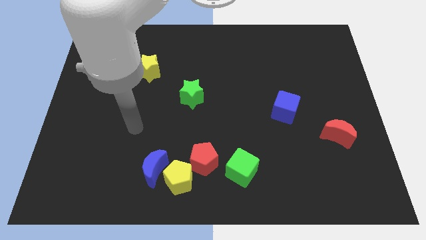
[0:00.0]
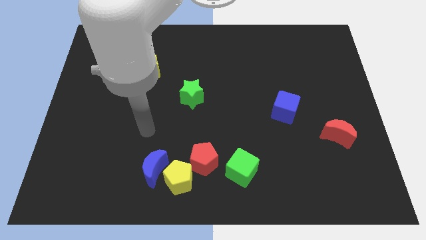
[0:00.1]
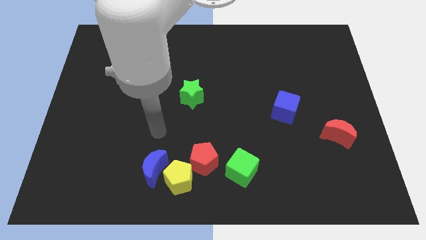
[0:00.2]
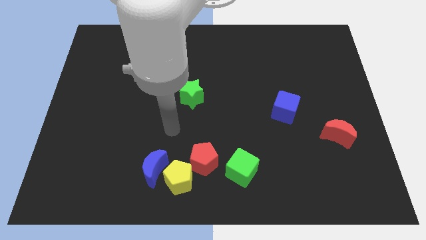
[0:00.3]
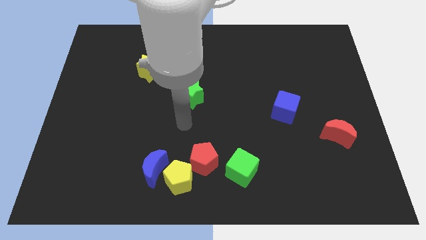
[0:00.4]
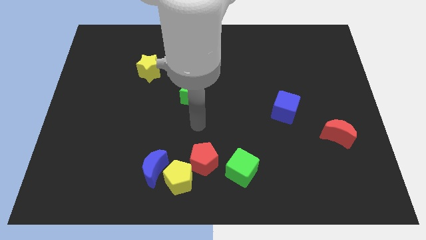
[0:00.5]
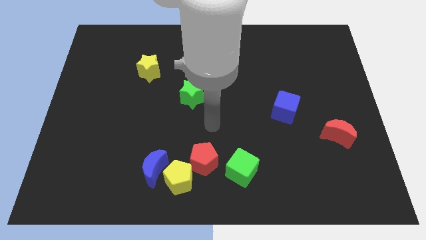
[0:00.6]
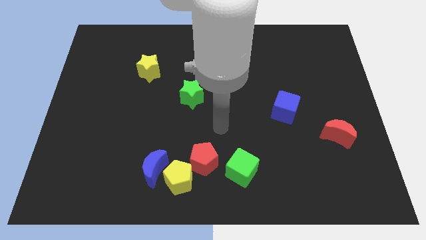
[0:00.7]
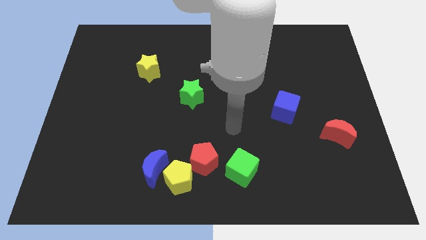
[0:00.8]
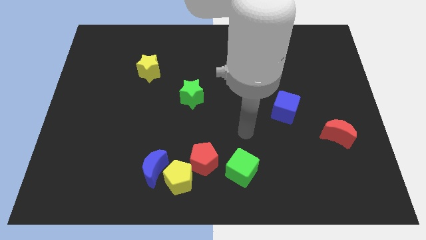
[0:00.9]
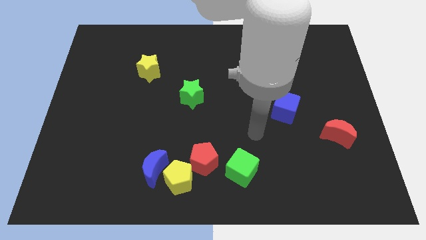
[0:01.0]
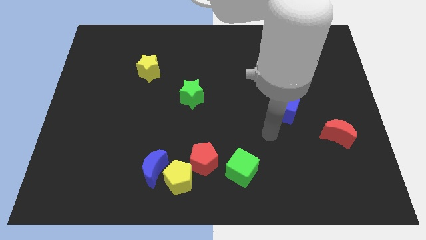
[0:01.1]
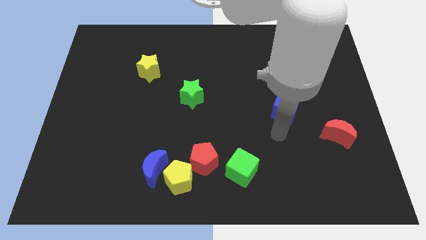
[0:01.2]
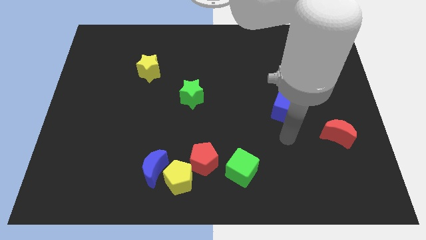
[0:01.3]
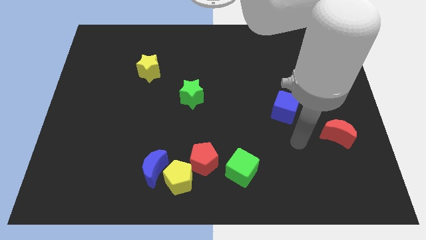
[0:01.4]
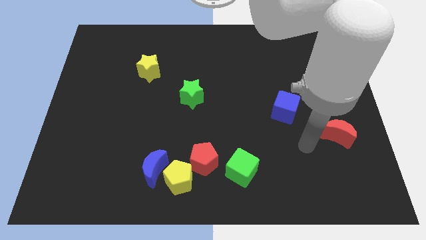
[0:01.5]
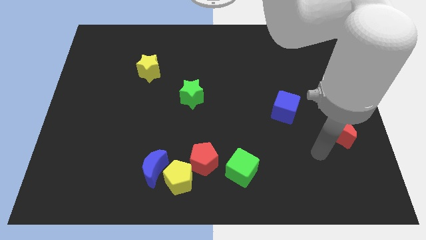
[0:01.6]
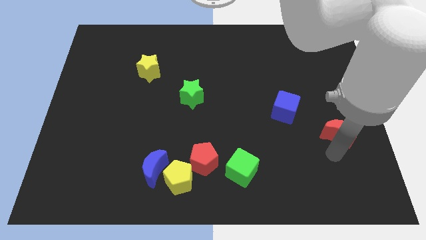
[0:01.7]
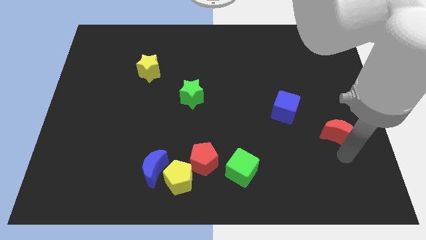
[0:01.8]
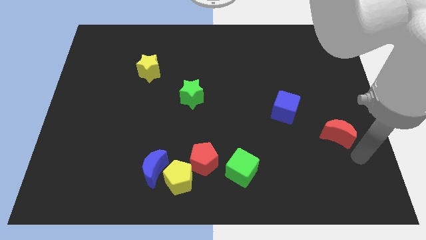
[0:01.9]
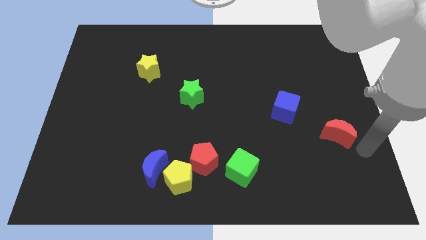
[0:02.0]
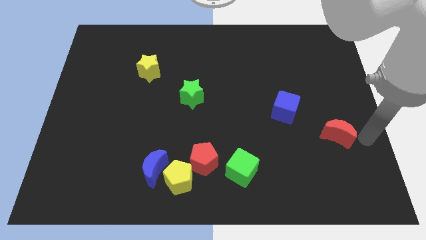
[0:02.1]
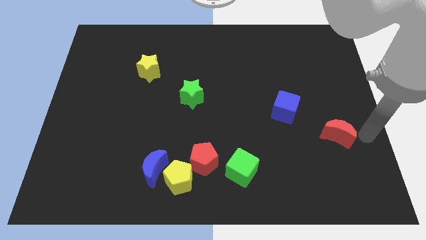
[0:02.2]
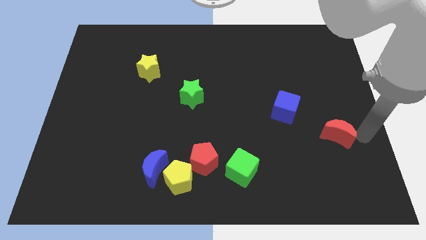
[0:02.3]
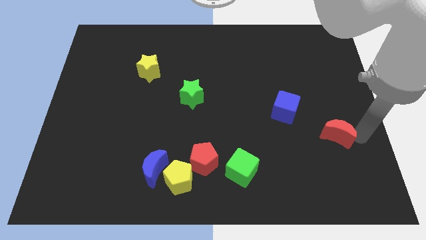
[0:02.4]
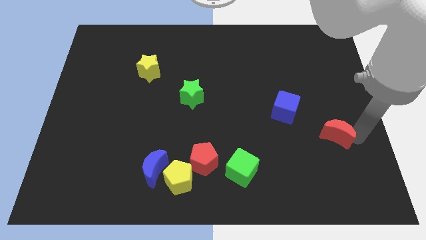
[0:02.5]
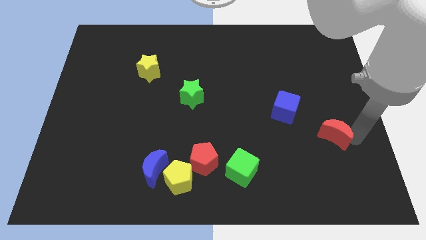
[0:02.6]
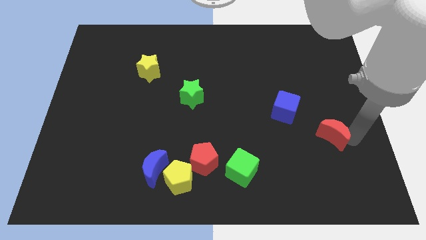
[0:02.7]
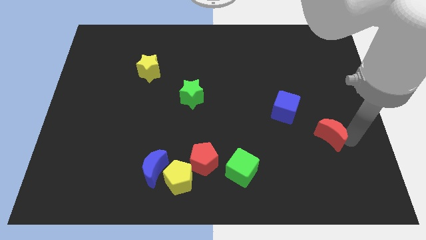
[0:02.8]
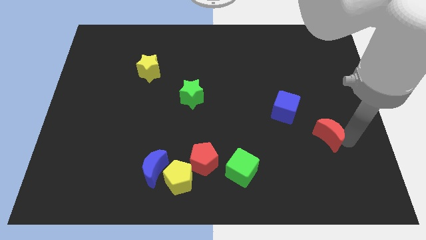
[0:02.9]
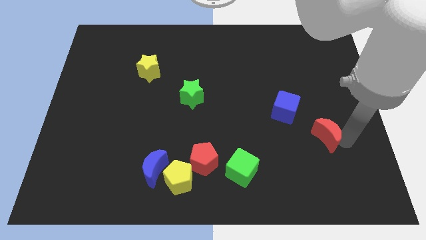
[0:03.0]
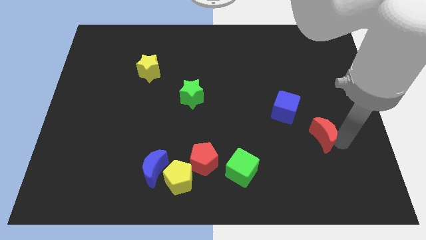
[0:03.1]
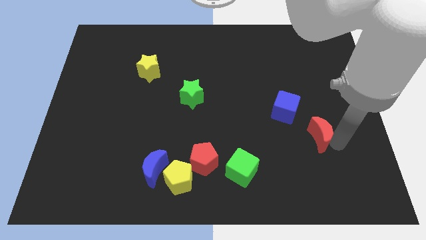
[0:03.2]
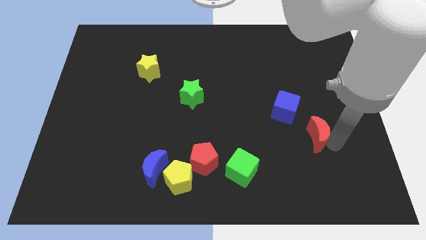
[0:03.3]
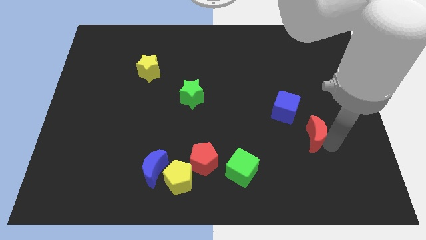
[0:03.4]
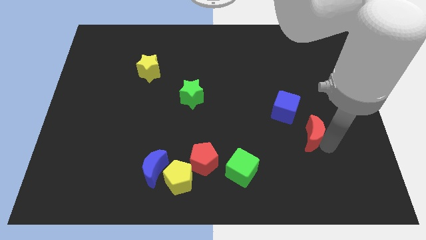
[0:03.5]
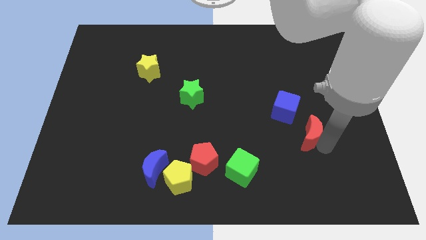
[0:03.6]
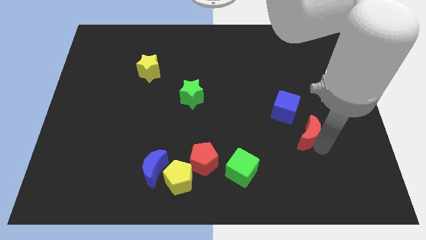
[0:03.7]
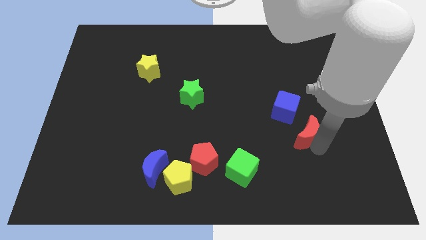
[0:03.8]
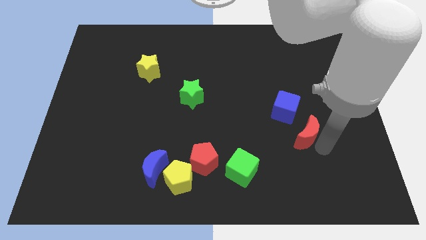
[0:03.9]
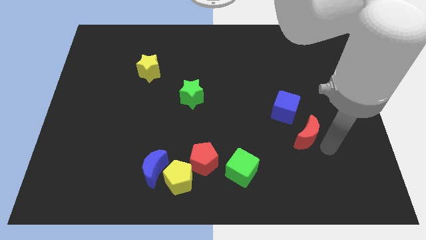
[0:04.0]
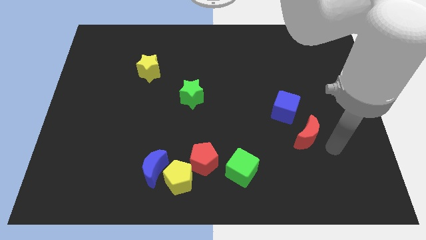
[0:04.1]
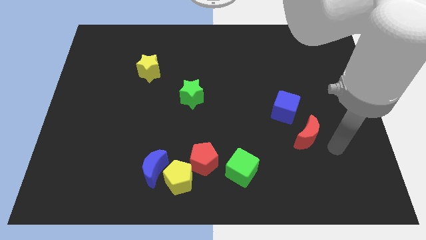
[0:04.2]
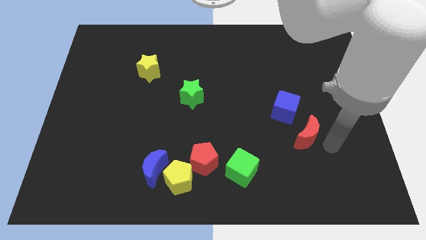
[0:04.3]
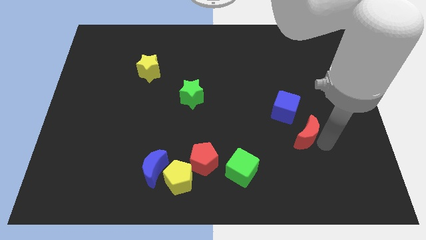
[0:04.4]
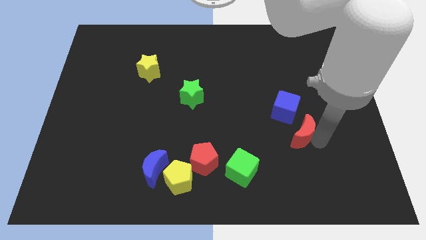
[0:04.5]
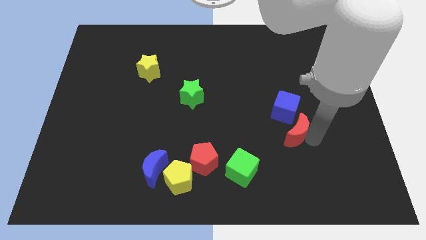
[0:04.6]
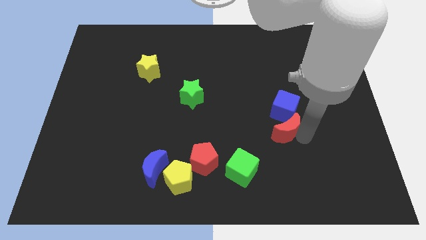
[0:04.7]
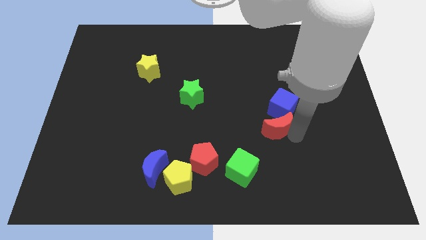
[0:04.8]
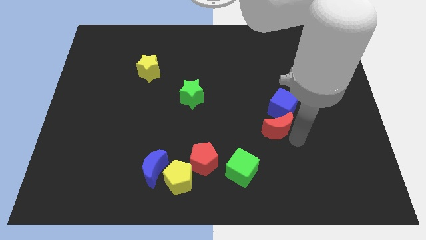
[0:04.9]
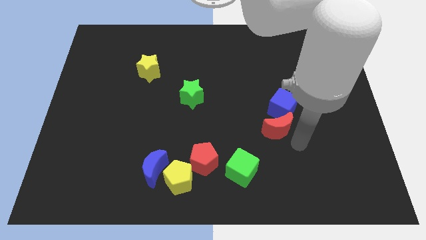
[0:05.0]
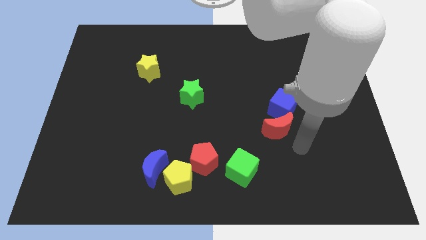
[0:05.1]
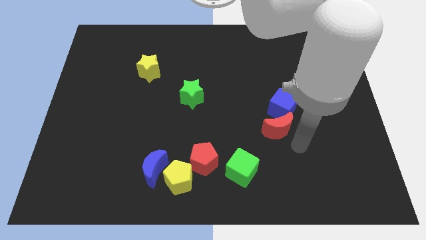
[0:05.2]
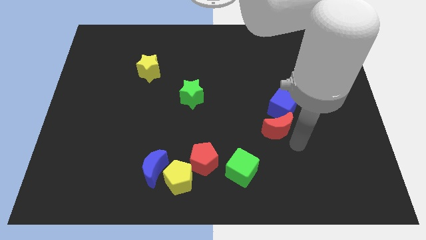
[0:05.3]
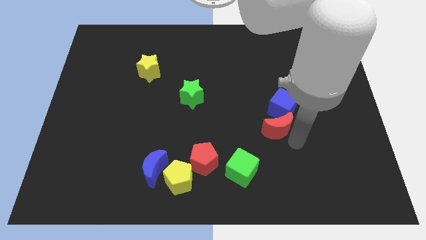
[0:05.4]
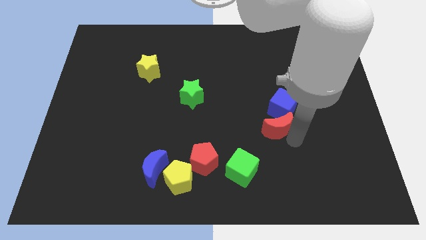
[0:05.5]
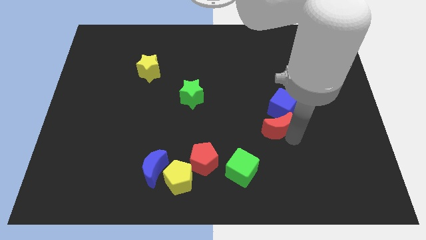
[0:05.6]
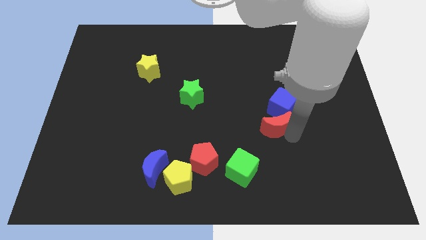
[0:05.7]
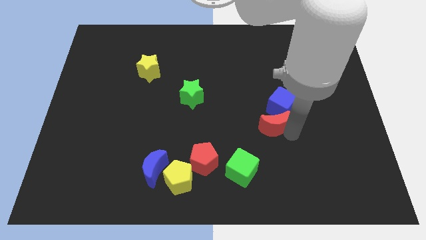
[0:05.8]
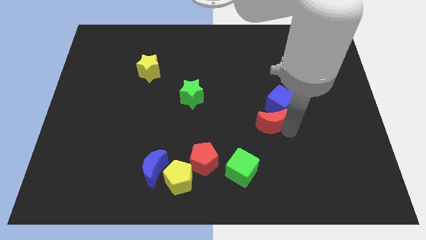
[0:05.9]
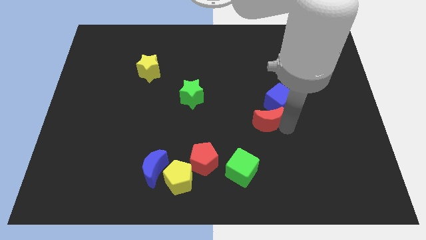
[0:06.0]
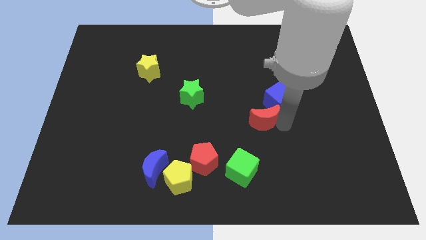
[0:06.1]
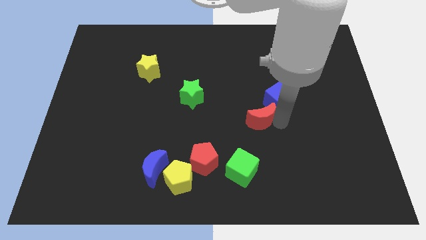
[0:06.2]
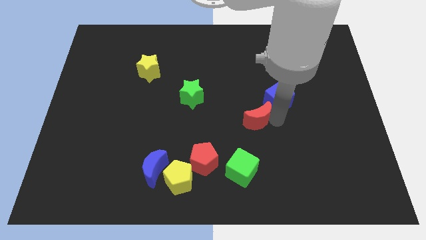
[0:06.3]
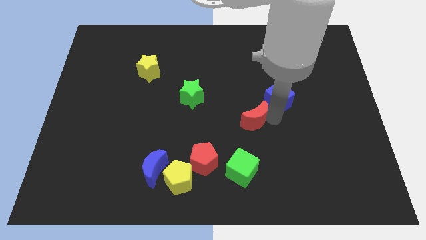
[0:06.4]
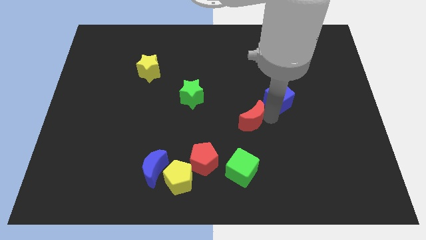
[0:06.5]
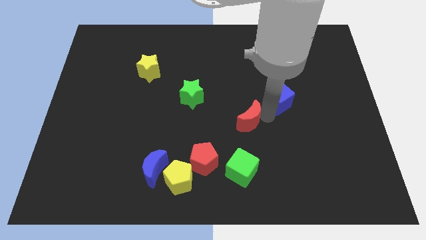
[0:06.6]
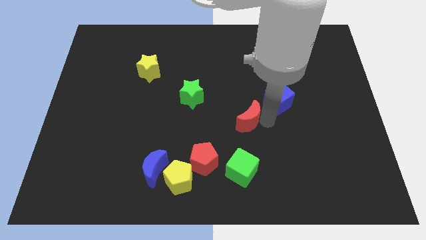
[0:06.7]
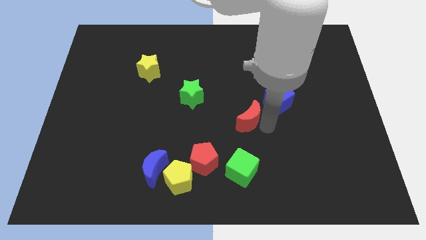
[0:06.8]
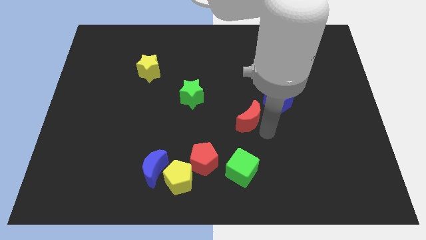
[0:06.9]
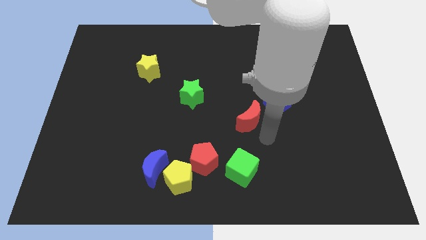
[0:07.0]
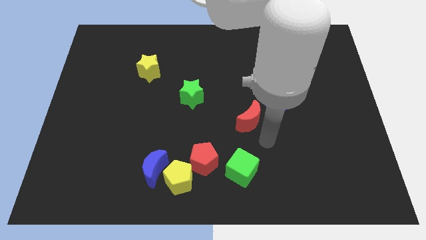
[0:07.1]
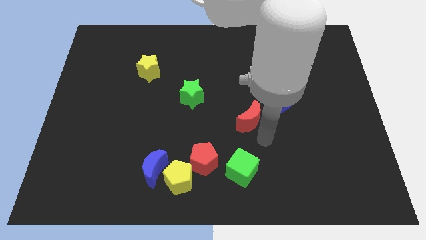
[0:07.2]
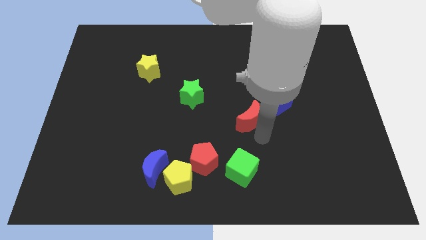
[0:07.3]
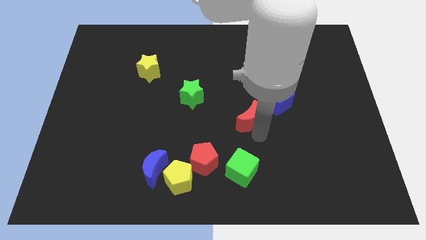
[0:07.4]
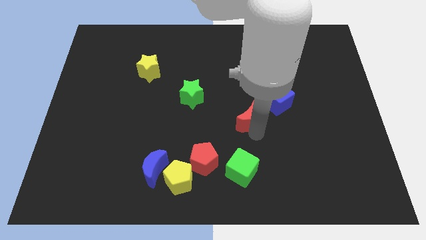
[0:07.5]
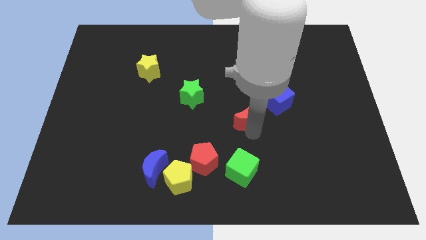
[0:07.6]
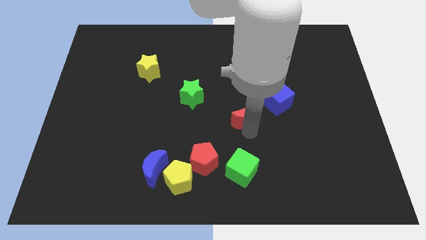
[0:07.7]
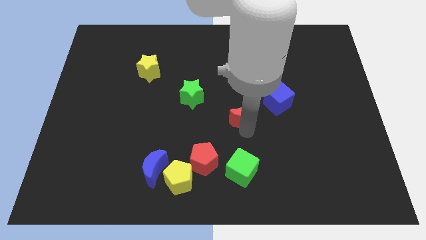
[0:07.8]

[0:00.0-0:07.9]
put the red moon just left of the blue cube

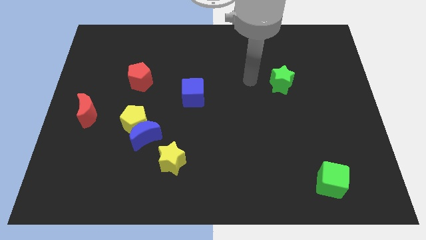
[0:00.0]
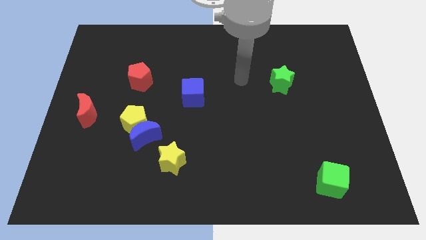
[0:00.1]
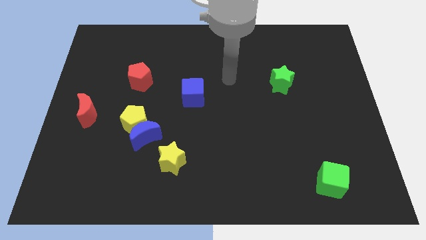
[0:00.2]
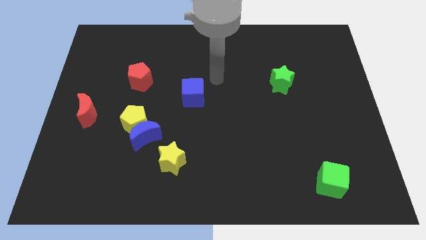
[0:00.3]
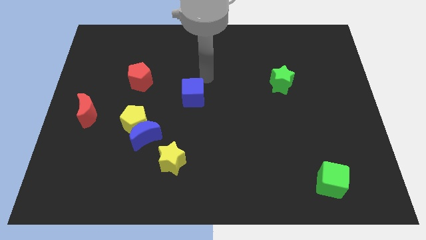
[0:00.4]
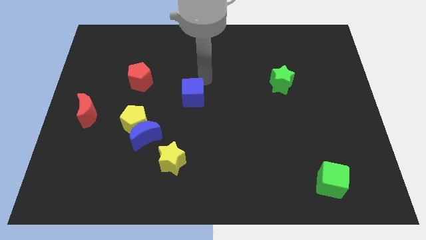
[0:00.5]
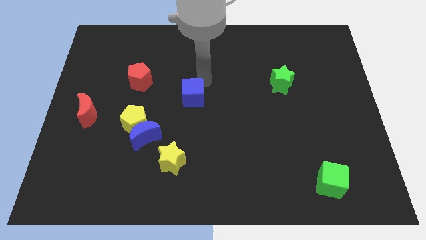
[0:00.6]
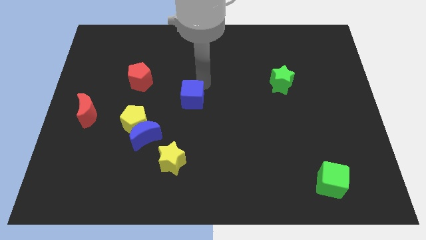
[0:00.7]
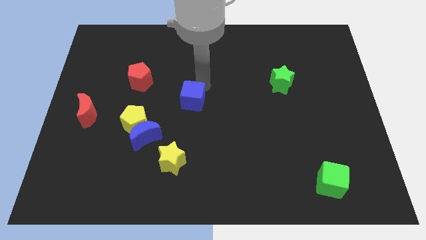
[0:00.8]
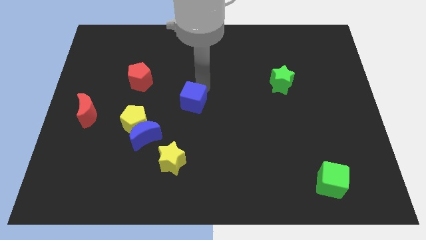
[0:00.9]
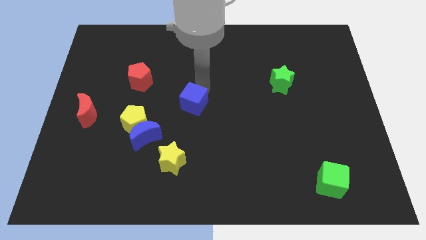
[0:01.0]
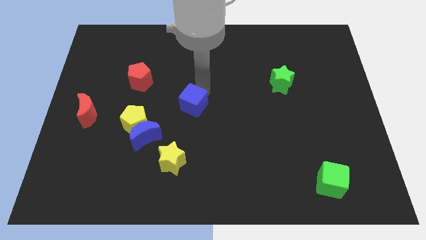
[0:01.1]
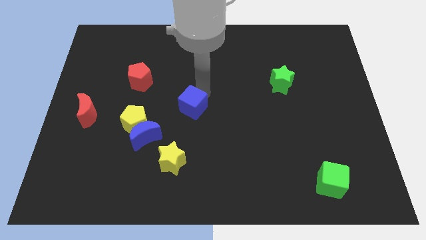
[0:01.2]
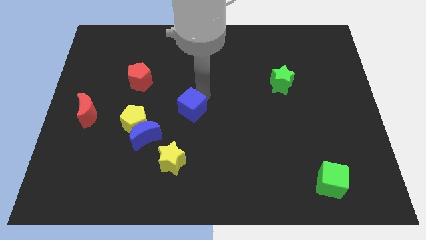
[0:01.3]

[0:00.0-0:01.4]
slide the blue cube above the yellow star
